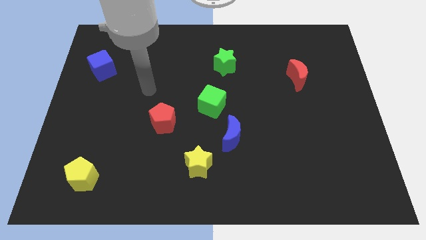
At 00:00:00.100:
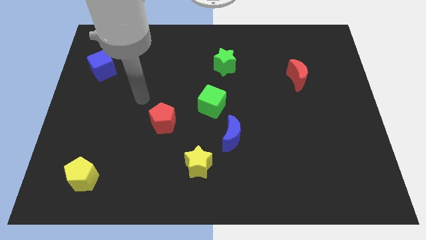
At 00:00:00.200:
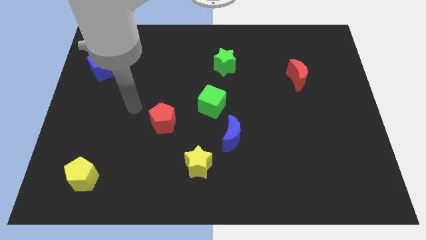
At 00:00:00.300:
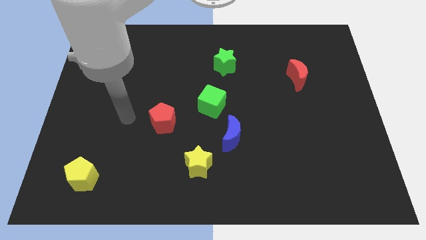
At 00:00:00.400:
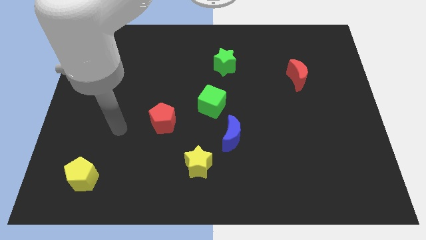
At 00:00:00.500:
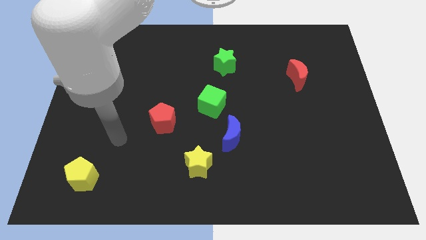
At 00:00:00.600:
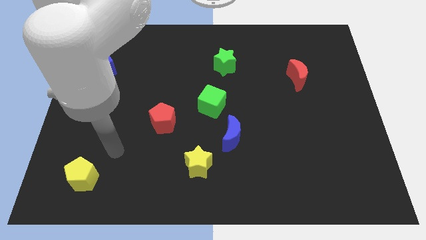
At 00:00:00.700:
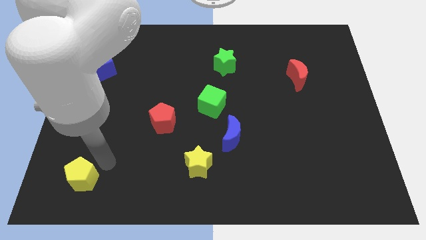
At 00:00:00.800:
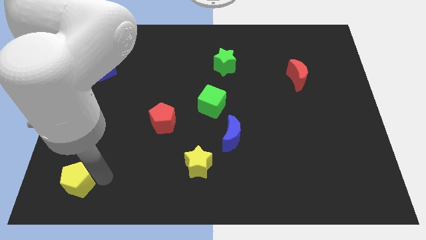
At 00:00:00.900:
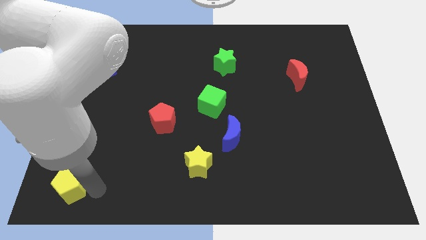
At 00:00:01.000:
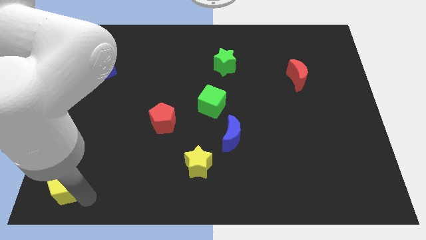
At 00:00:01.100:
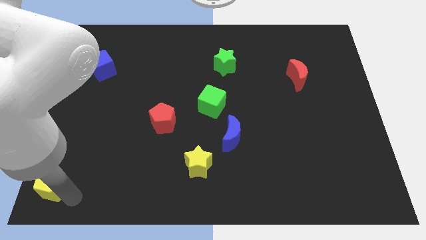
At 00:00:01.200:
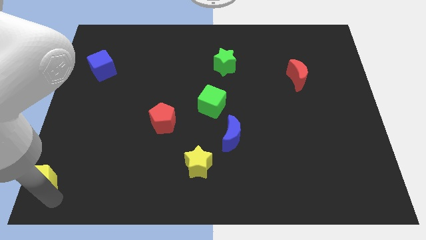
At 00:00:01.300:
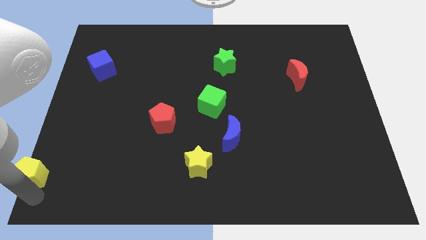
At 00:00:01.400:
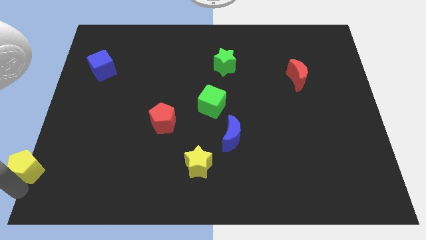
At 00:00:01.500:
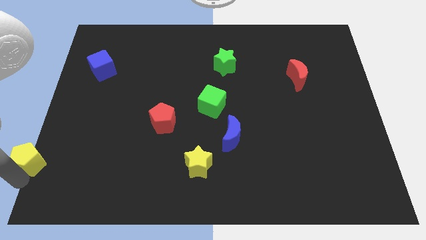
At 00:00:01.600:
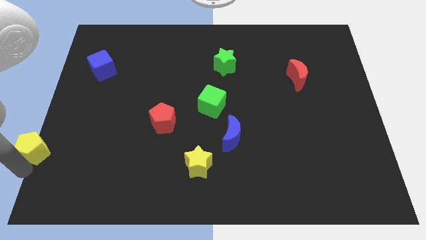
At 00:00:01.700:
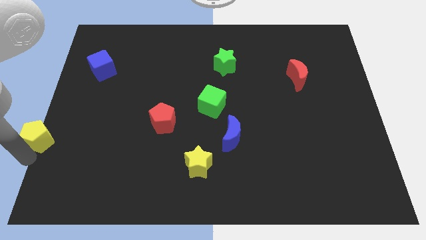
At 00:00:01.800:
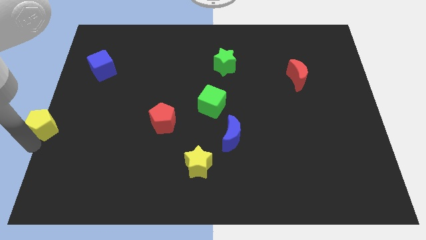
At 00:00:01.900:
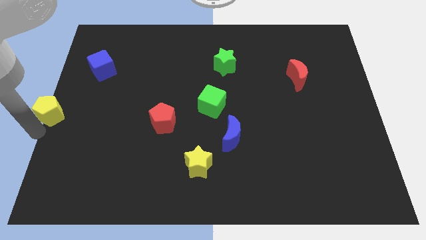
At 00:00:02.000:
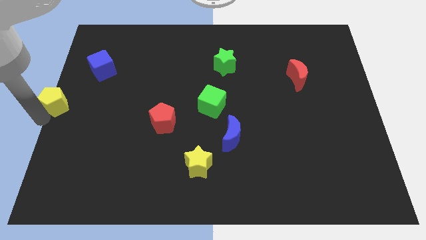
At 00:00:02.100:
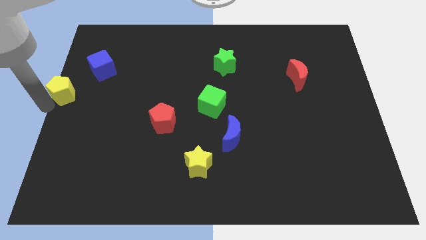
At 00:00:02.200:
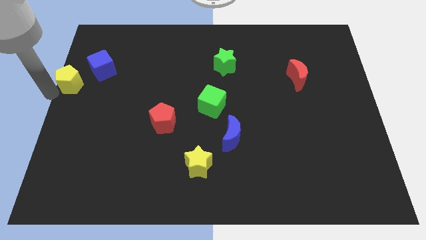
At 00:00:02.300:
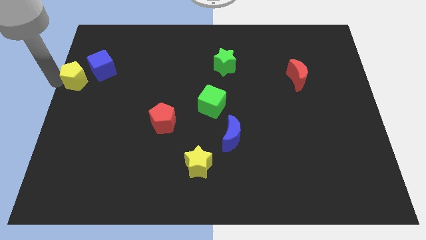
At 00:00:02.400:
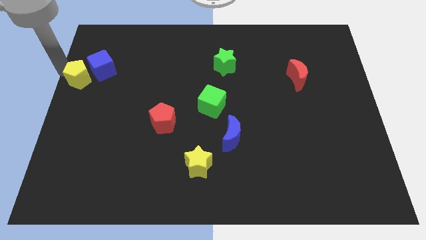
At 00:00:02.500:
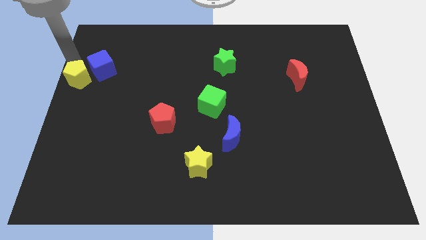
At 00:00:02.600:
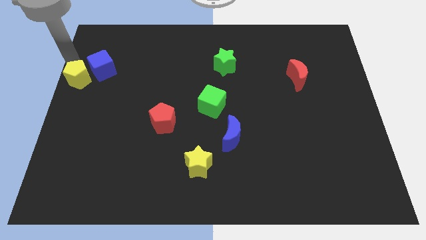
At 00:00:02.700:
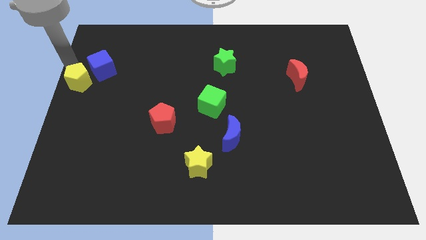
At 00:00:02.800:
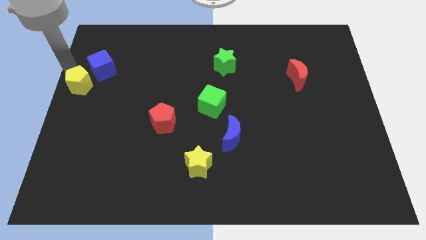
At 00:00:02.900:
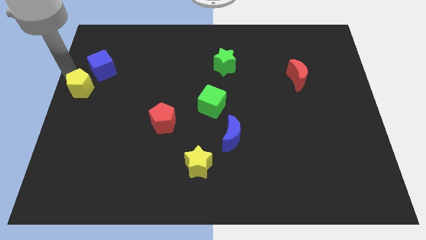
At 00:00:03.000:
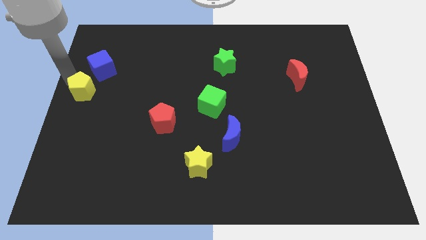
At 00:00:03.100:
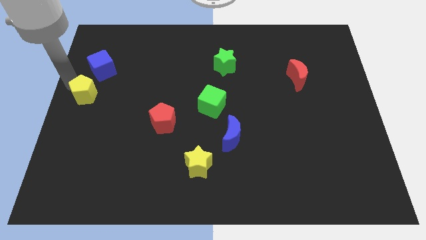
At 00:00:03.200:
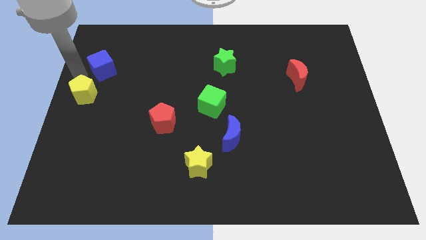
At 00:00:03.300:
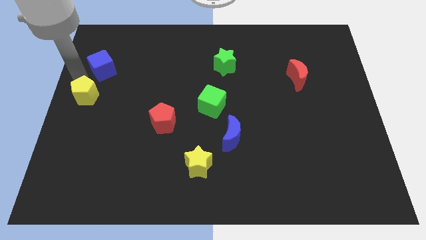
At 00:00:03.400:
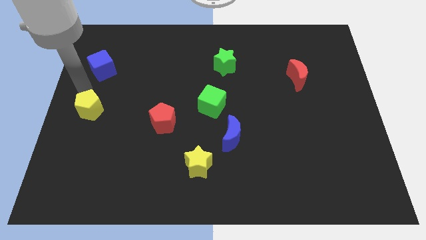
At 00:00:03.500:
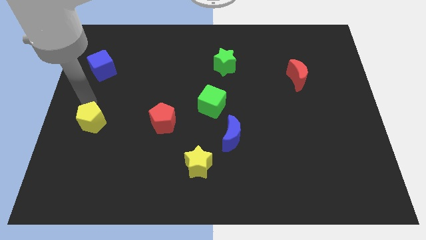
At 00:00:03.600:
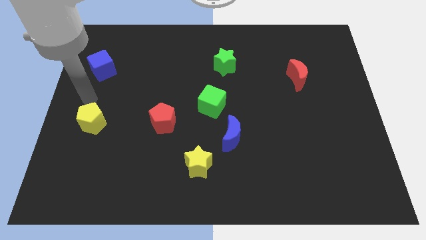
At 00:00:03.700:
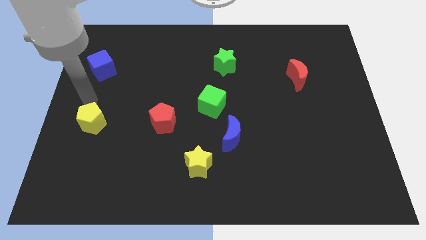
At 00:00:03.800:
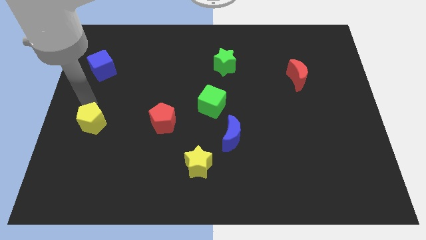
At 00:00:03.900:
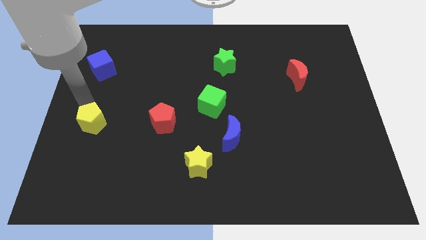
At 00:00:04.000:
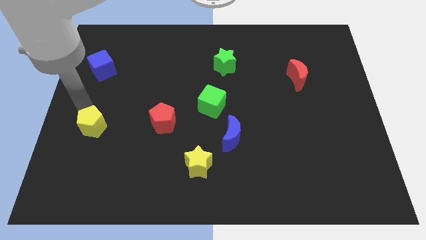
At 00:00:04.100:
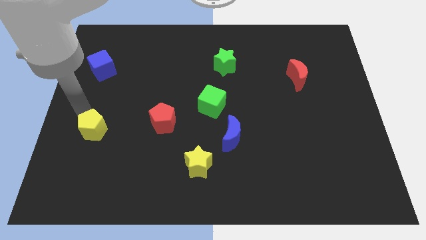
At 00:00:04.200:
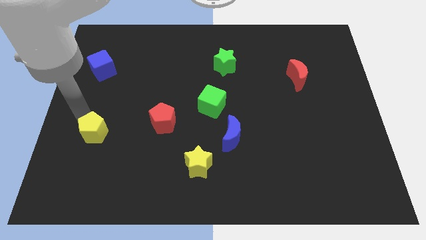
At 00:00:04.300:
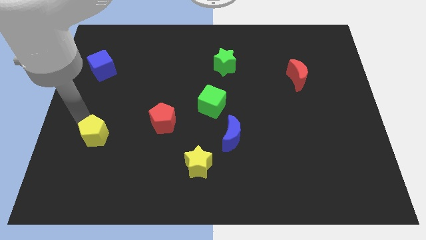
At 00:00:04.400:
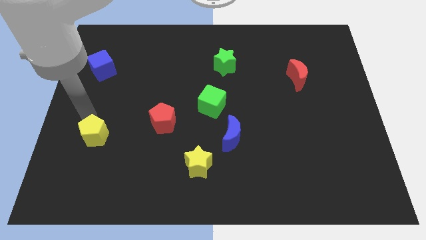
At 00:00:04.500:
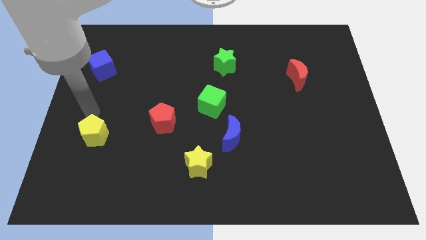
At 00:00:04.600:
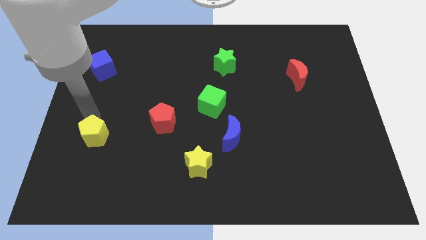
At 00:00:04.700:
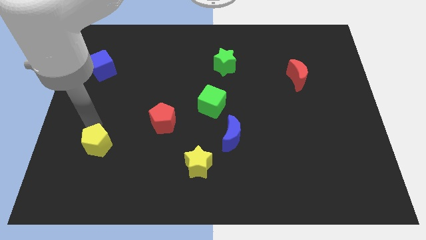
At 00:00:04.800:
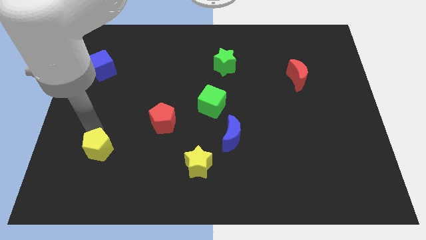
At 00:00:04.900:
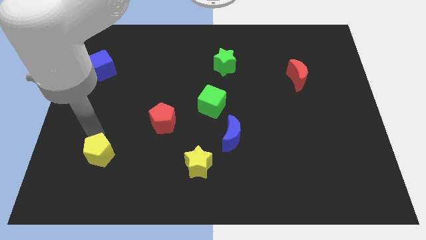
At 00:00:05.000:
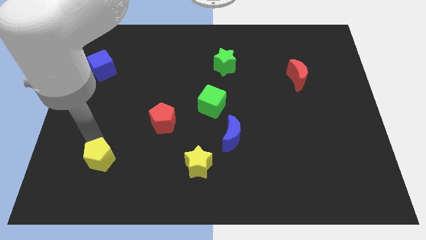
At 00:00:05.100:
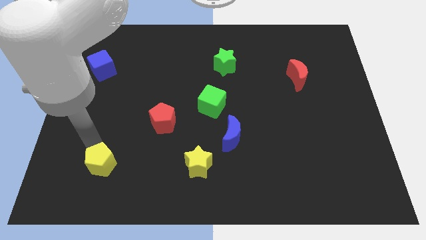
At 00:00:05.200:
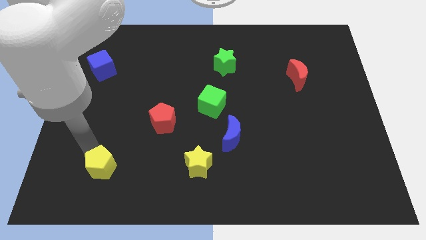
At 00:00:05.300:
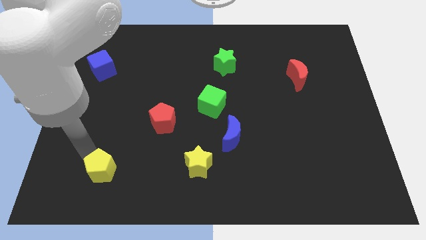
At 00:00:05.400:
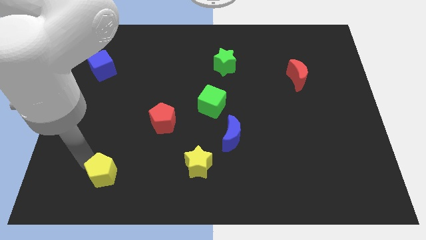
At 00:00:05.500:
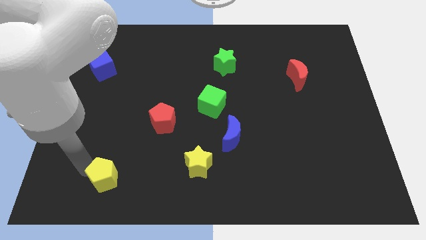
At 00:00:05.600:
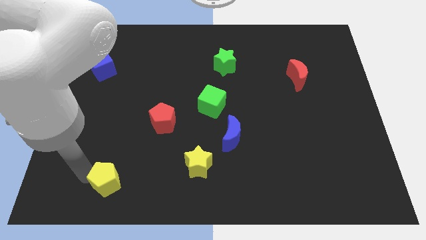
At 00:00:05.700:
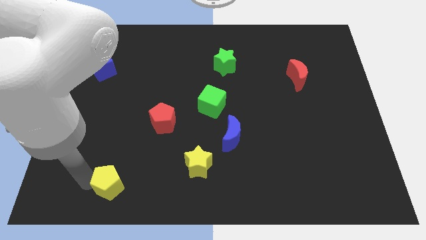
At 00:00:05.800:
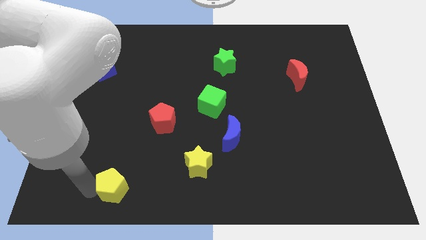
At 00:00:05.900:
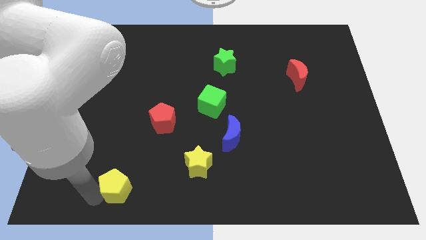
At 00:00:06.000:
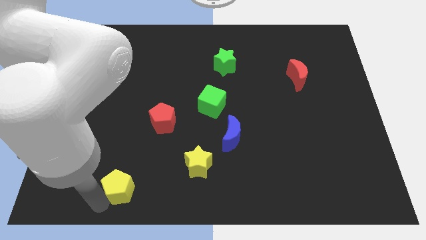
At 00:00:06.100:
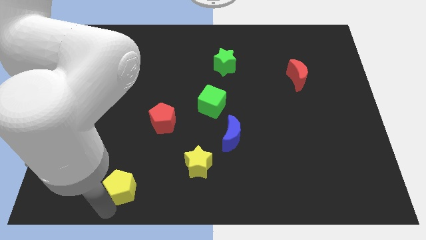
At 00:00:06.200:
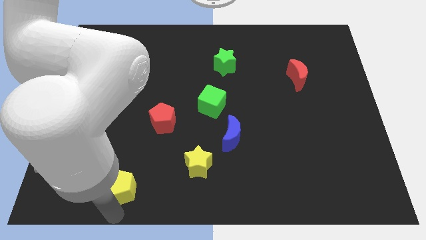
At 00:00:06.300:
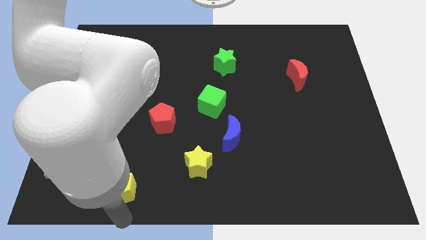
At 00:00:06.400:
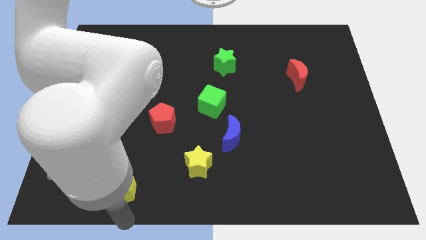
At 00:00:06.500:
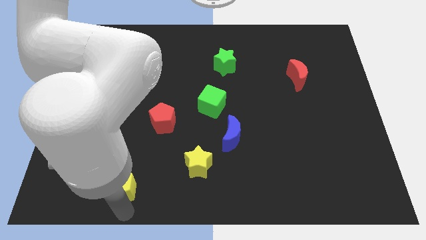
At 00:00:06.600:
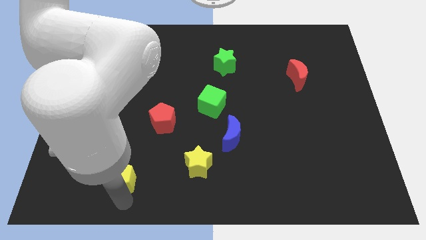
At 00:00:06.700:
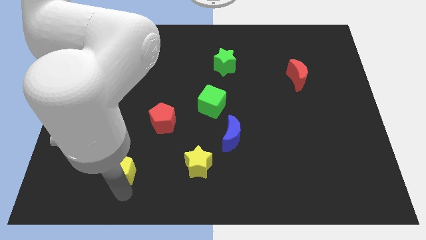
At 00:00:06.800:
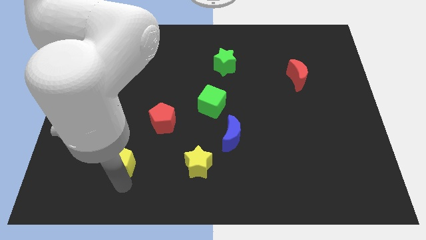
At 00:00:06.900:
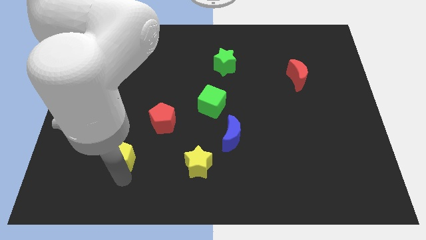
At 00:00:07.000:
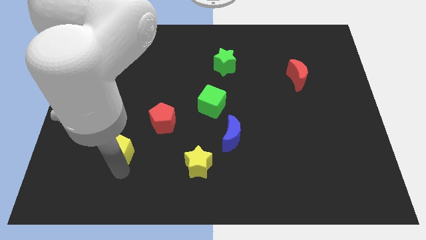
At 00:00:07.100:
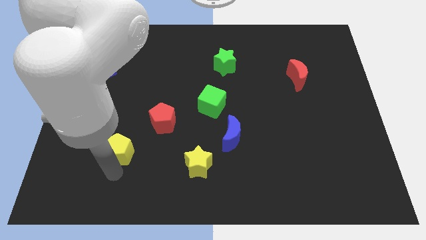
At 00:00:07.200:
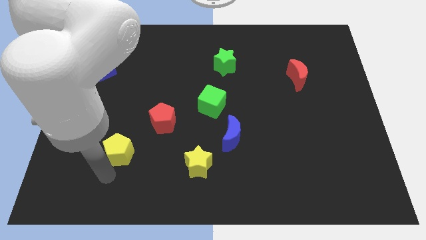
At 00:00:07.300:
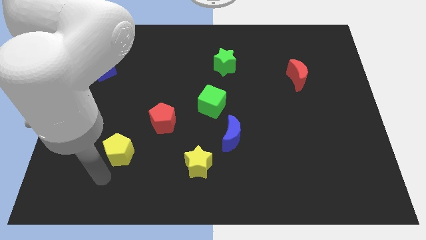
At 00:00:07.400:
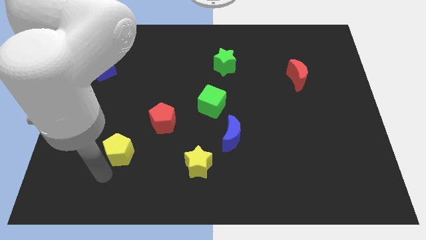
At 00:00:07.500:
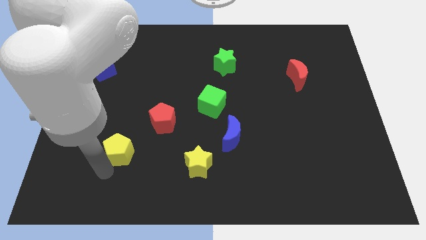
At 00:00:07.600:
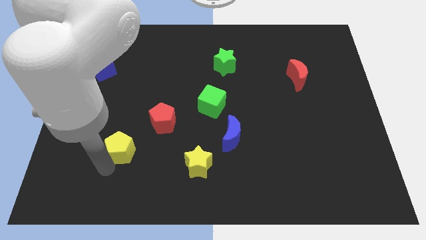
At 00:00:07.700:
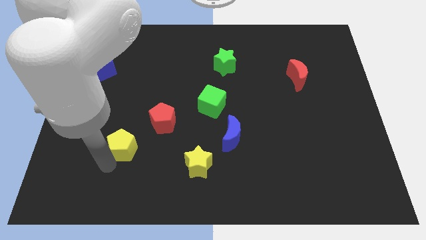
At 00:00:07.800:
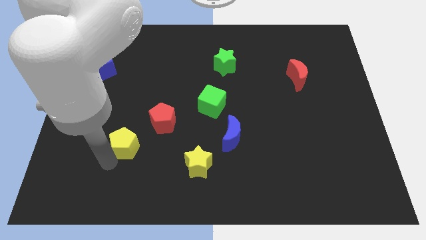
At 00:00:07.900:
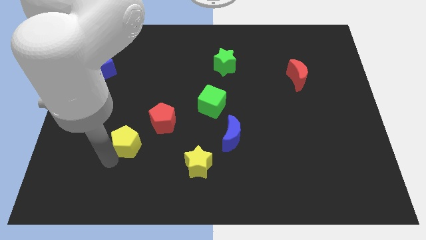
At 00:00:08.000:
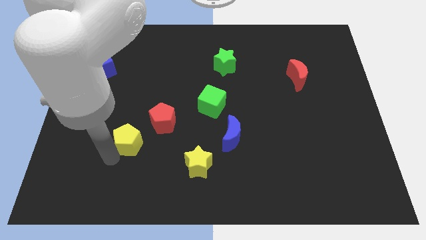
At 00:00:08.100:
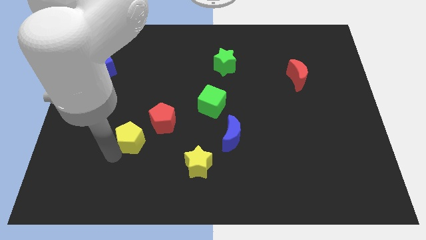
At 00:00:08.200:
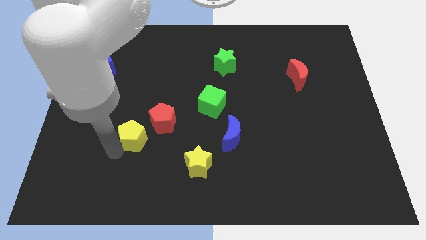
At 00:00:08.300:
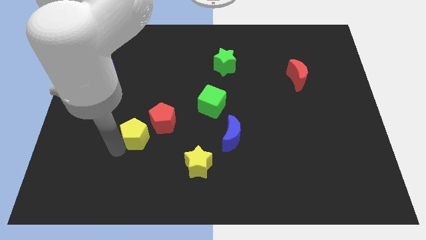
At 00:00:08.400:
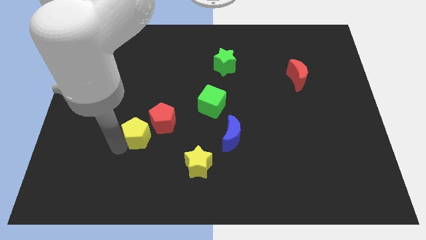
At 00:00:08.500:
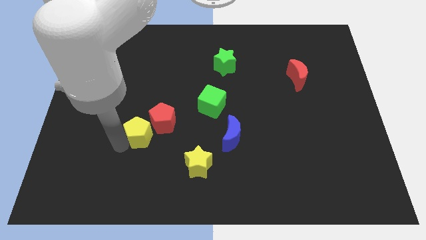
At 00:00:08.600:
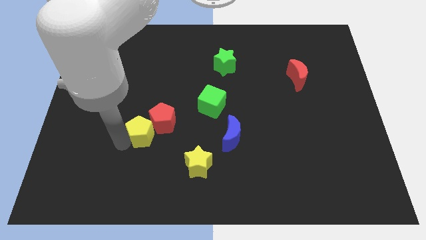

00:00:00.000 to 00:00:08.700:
move the yellow pentagon to the red pentagon
